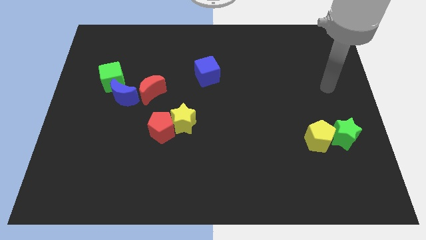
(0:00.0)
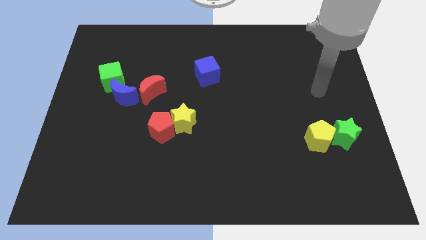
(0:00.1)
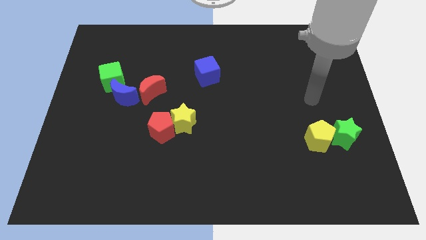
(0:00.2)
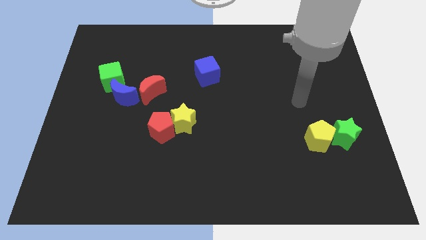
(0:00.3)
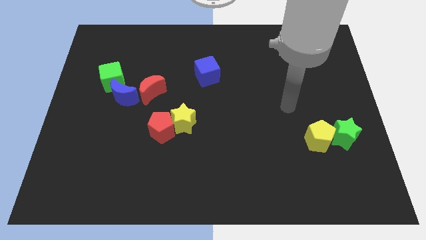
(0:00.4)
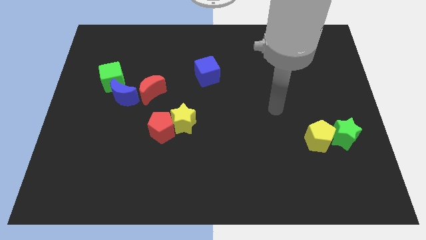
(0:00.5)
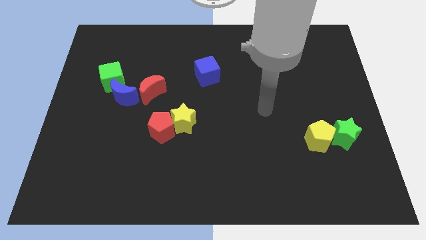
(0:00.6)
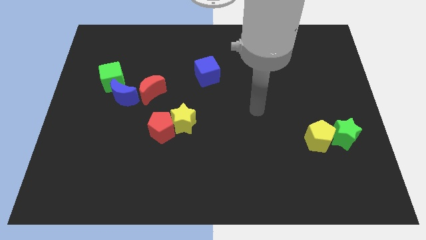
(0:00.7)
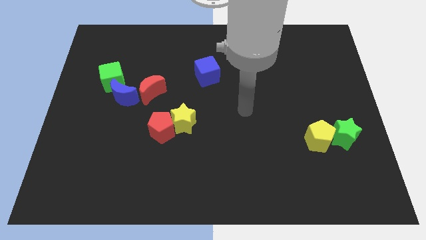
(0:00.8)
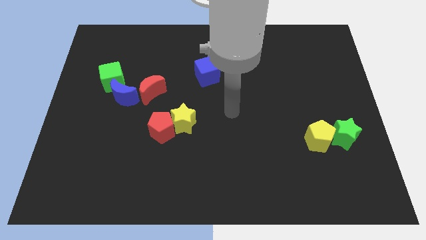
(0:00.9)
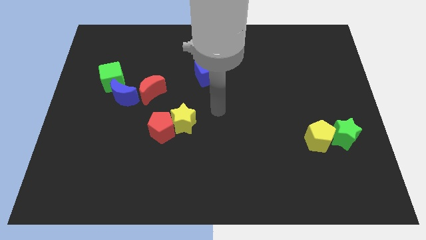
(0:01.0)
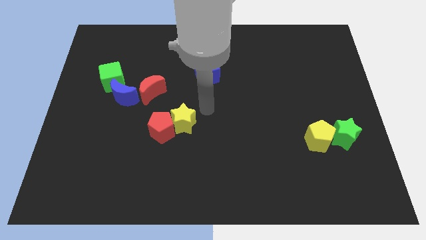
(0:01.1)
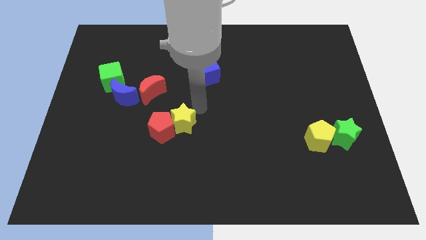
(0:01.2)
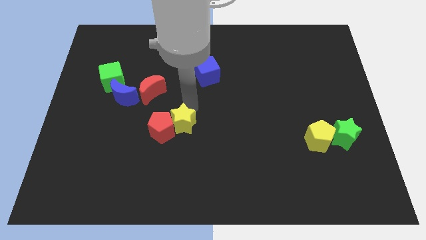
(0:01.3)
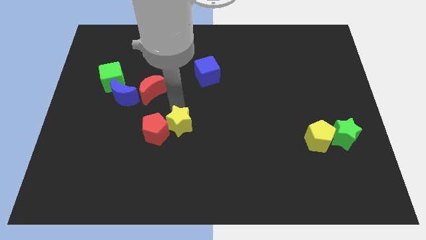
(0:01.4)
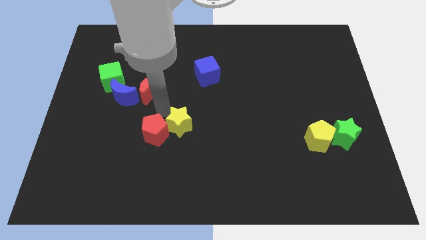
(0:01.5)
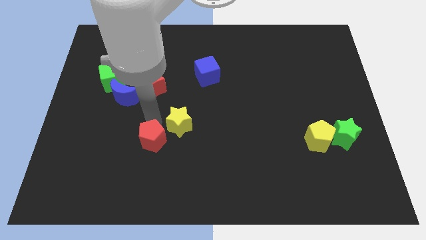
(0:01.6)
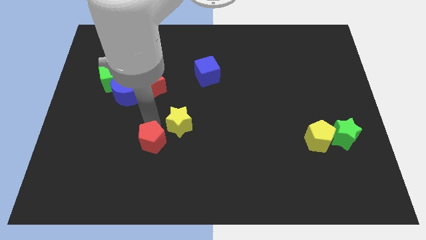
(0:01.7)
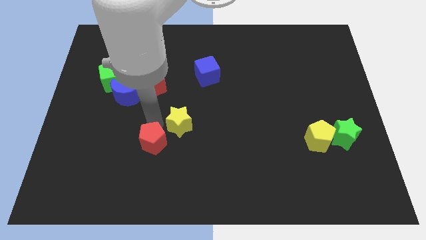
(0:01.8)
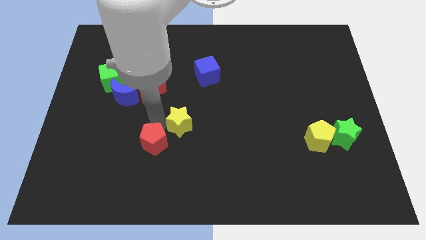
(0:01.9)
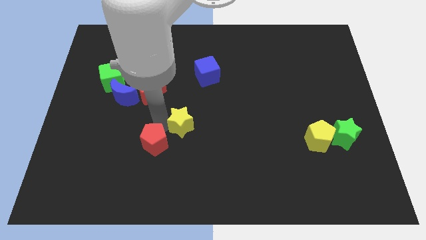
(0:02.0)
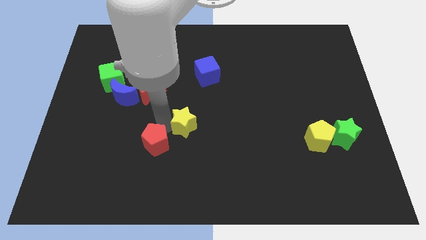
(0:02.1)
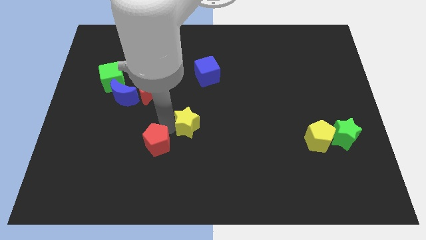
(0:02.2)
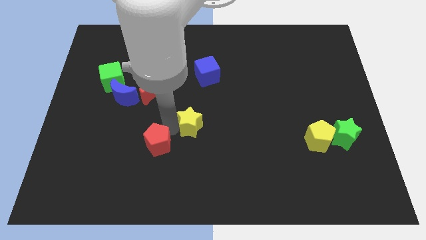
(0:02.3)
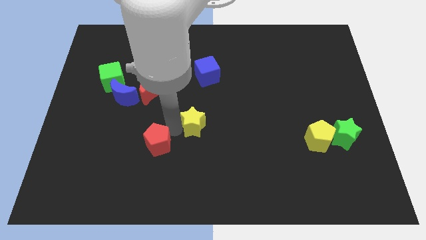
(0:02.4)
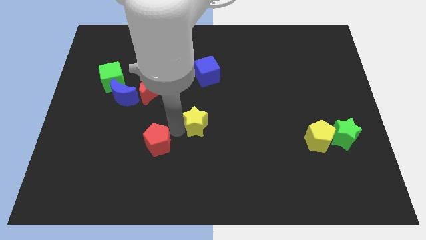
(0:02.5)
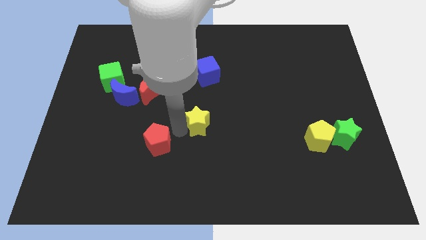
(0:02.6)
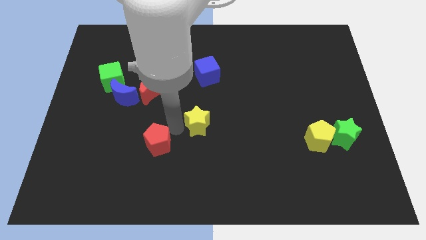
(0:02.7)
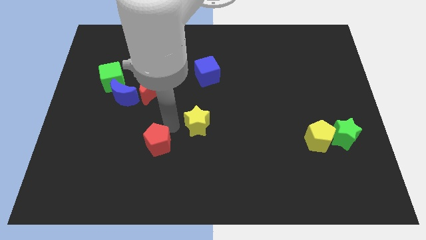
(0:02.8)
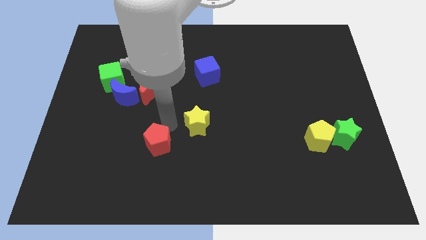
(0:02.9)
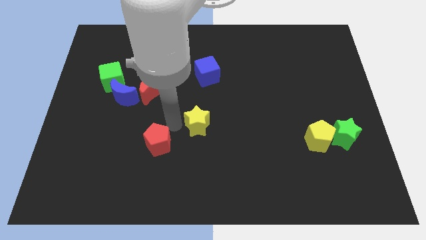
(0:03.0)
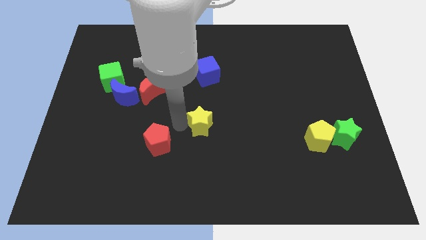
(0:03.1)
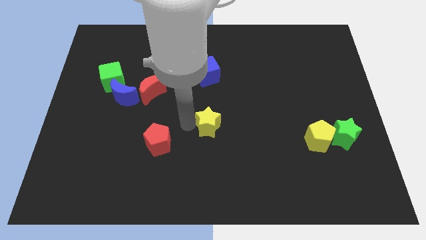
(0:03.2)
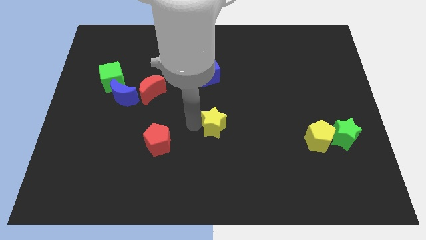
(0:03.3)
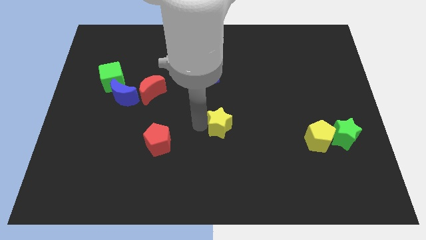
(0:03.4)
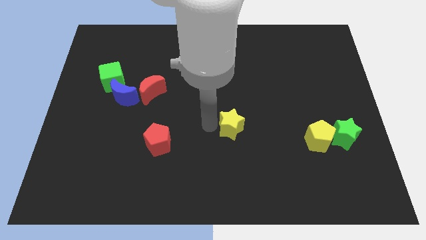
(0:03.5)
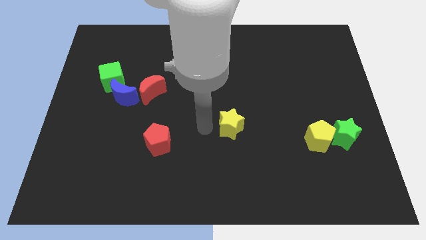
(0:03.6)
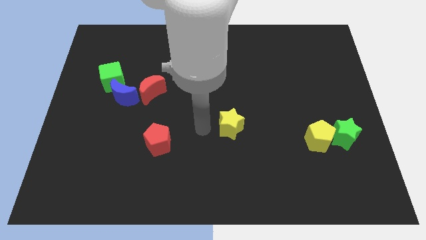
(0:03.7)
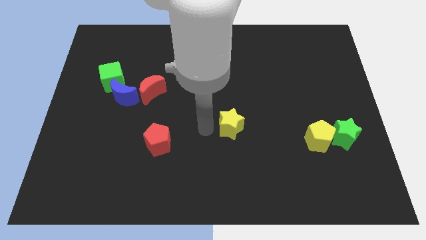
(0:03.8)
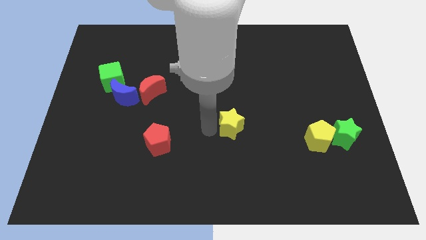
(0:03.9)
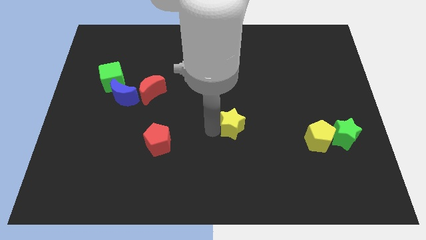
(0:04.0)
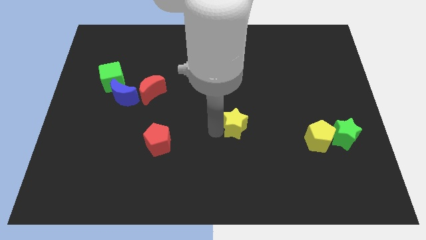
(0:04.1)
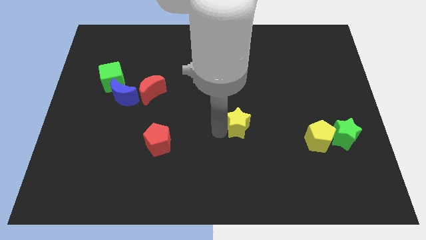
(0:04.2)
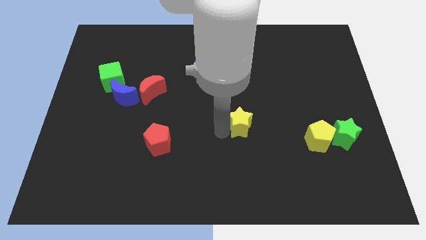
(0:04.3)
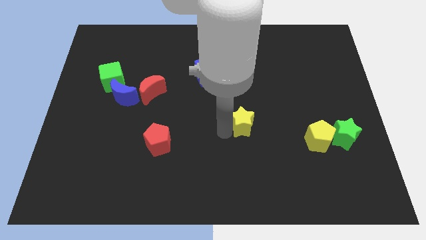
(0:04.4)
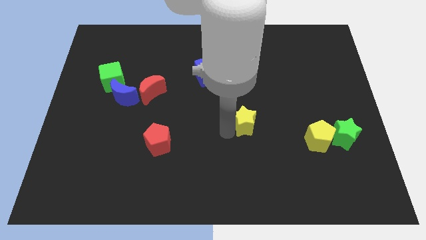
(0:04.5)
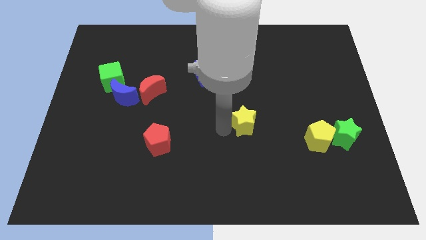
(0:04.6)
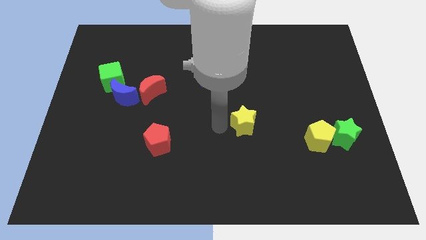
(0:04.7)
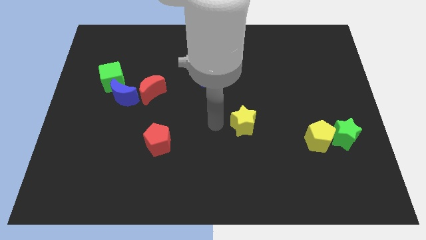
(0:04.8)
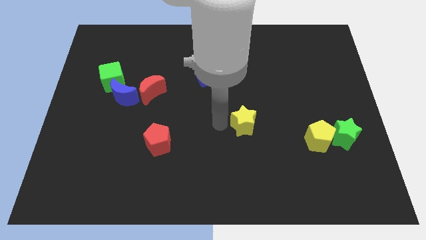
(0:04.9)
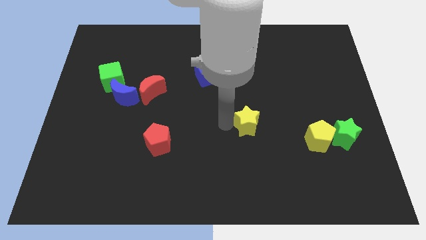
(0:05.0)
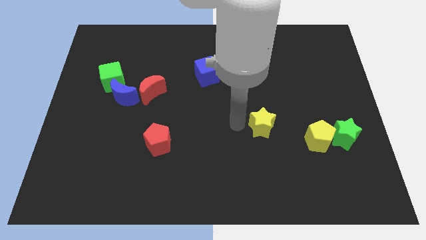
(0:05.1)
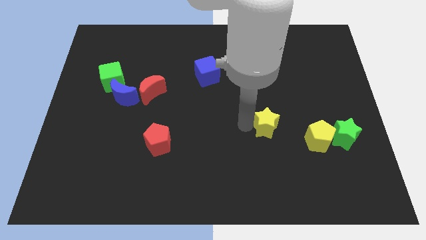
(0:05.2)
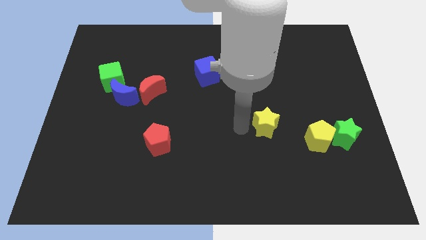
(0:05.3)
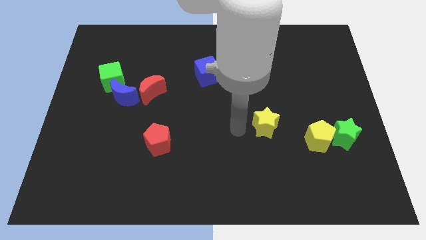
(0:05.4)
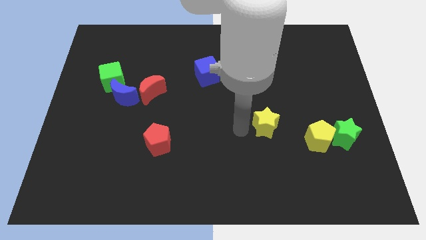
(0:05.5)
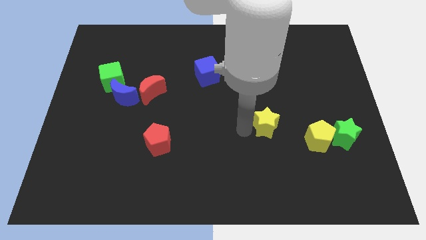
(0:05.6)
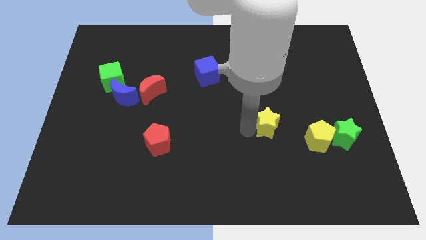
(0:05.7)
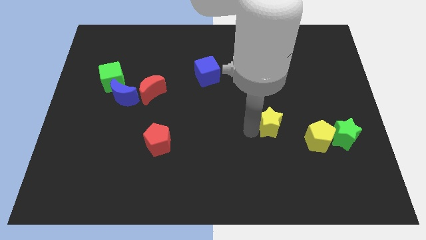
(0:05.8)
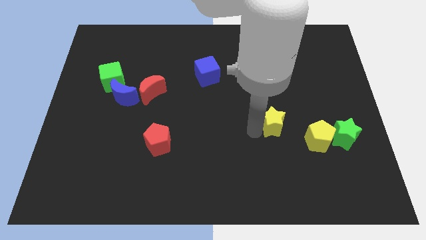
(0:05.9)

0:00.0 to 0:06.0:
push the yellow star diagonally up and to the left of the yellow pentagon

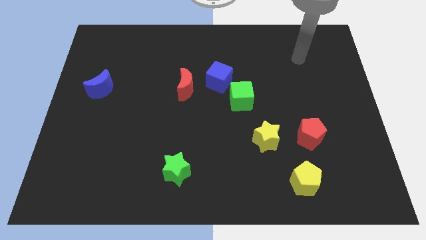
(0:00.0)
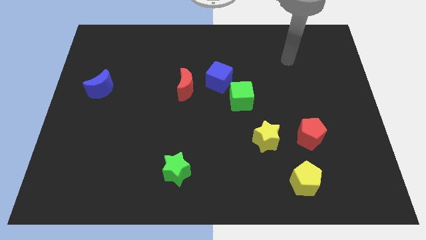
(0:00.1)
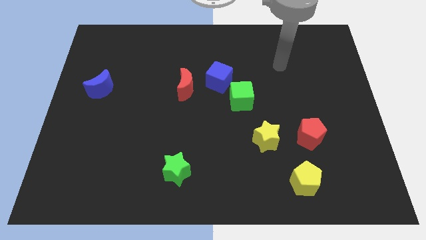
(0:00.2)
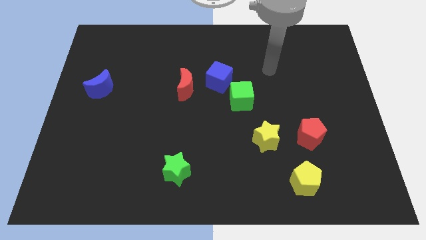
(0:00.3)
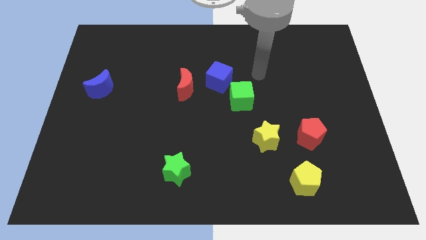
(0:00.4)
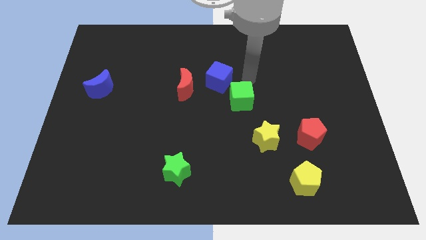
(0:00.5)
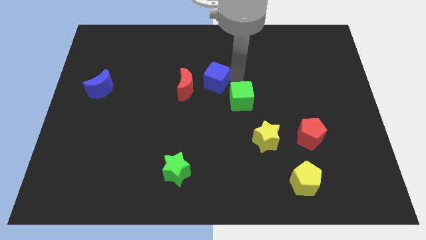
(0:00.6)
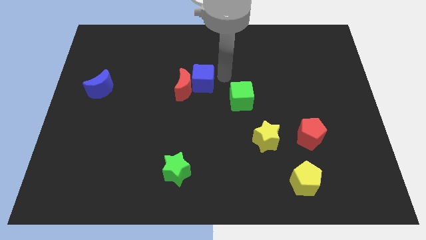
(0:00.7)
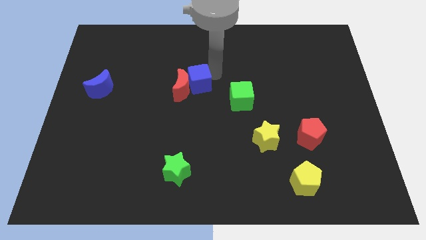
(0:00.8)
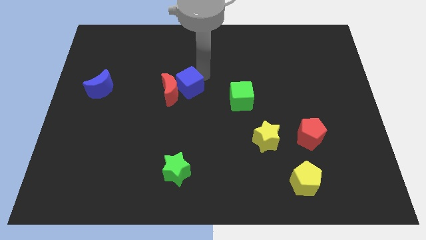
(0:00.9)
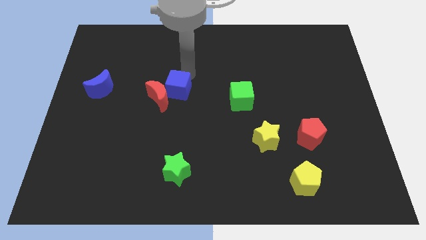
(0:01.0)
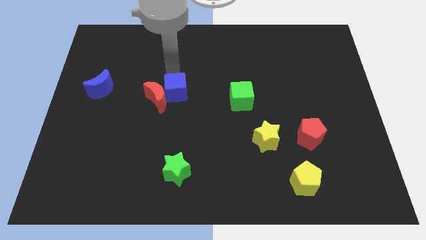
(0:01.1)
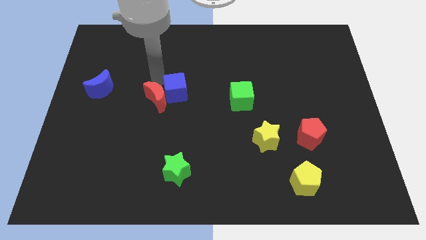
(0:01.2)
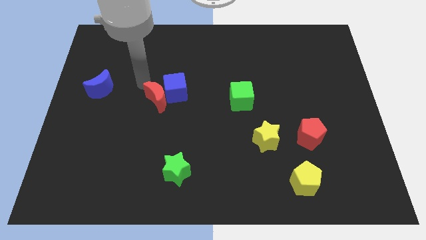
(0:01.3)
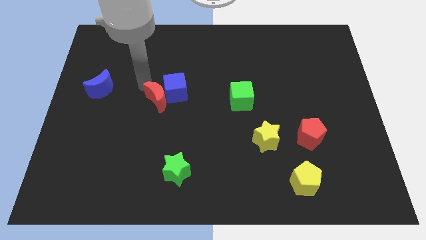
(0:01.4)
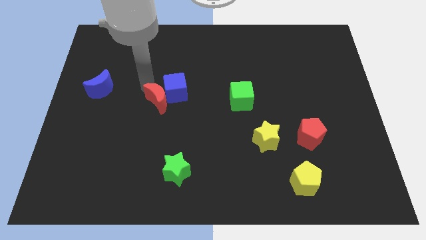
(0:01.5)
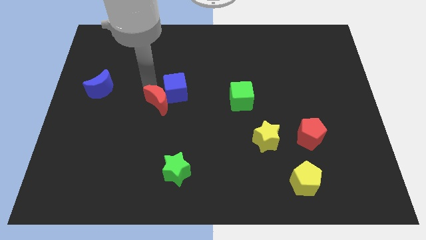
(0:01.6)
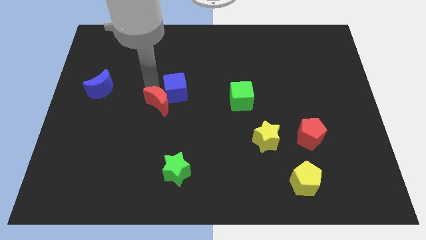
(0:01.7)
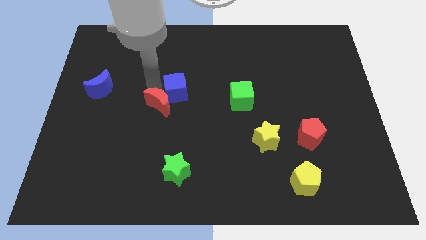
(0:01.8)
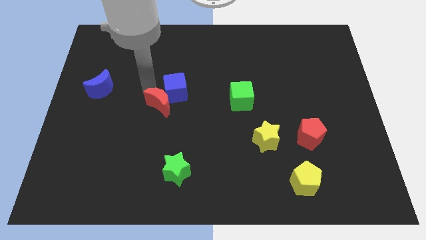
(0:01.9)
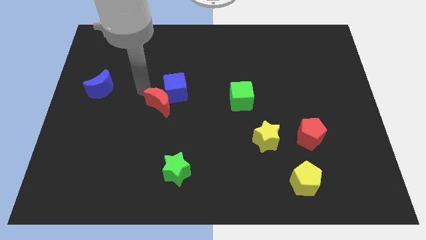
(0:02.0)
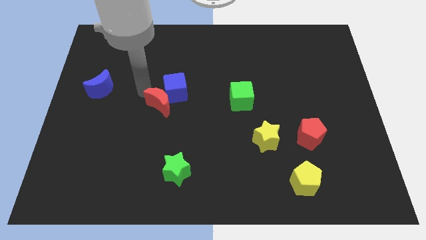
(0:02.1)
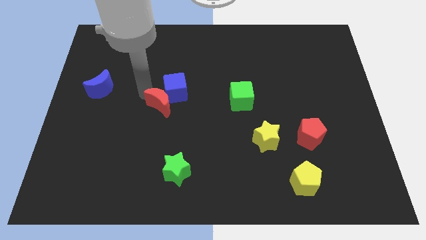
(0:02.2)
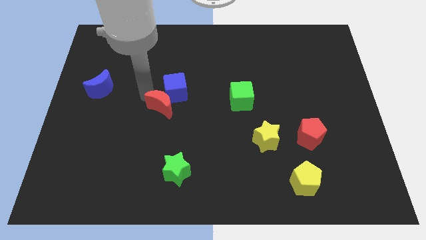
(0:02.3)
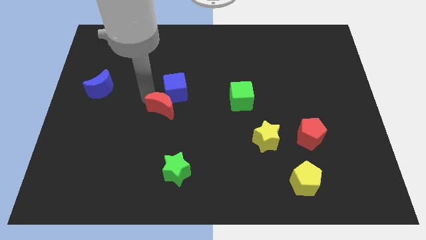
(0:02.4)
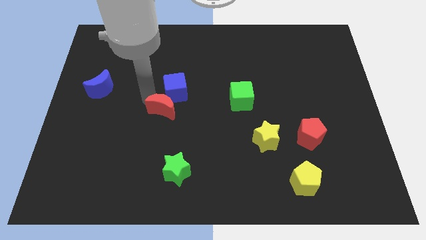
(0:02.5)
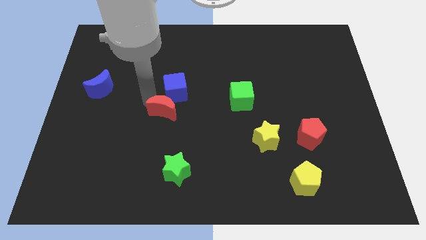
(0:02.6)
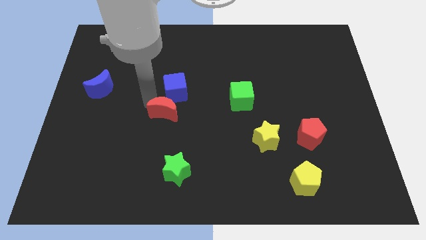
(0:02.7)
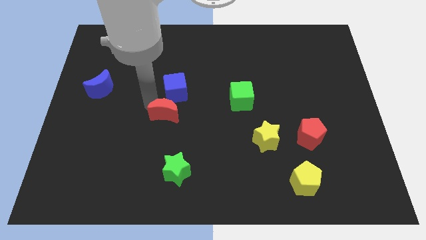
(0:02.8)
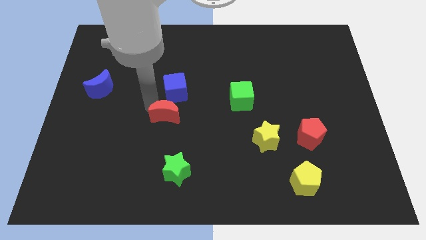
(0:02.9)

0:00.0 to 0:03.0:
move the red moon to the top of the green star
